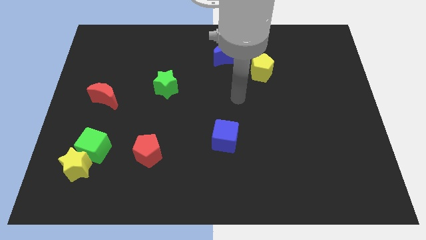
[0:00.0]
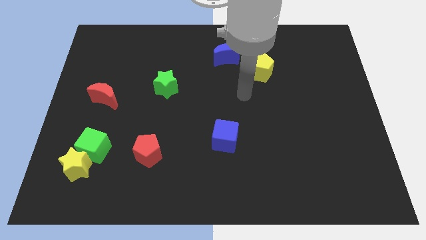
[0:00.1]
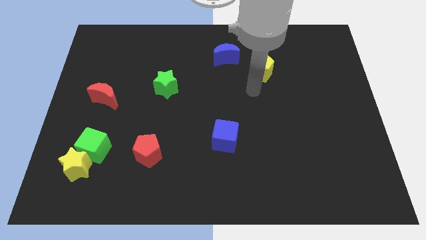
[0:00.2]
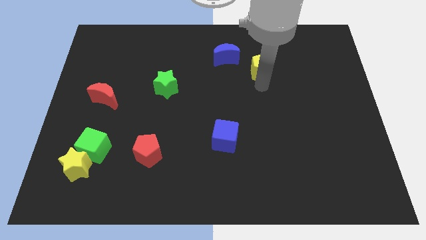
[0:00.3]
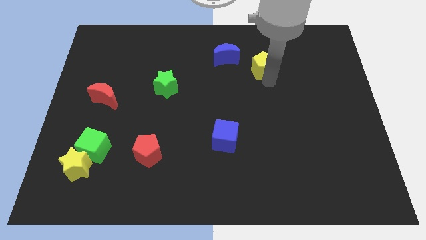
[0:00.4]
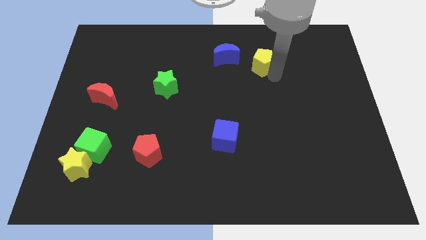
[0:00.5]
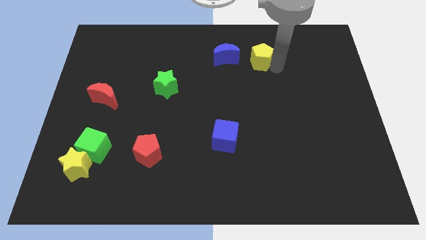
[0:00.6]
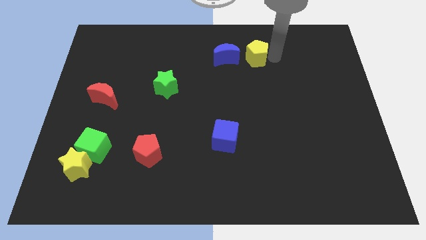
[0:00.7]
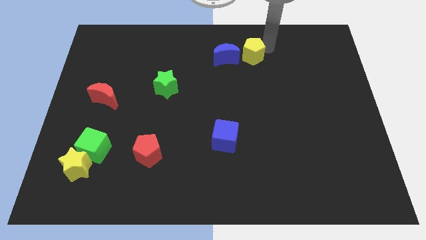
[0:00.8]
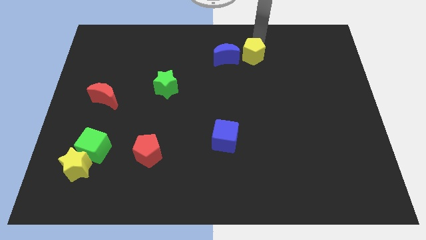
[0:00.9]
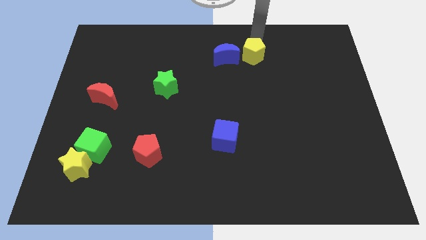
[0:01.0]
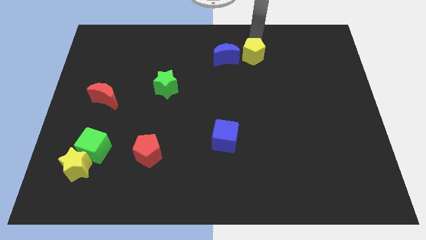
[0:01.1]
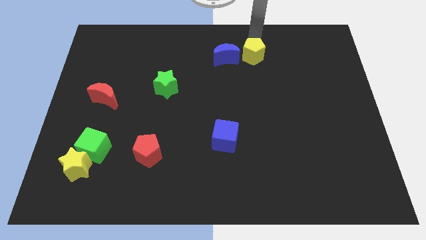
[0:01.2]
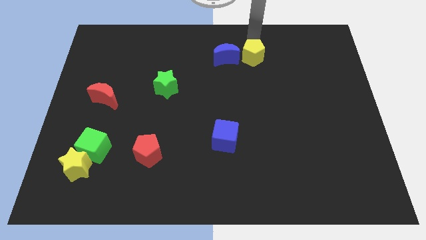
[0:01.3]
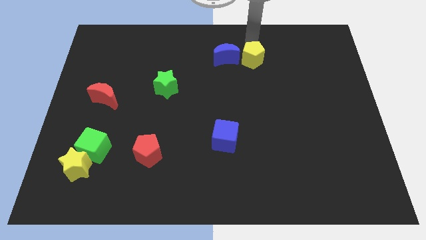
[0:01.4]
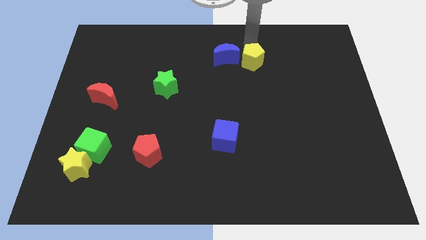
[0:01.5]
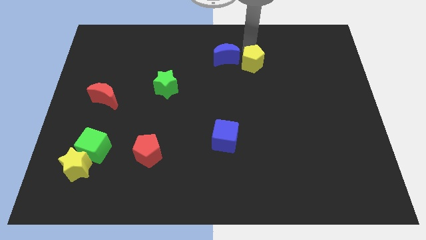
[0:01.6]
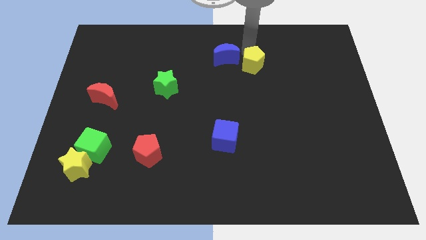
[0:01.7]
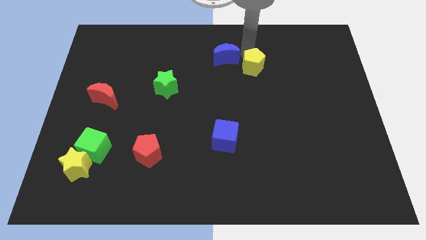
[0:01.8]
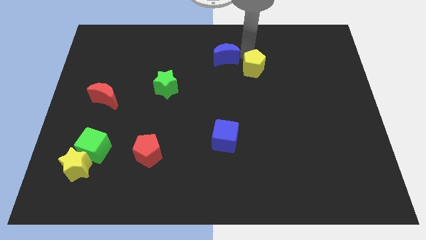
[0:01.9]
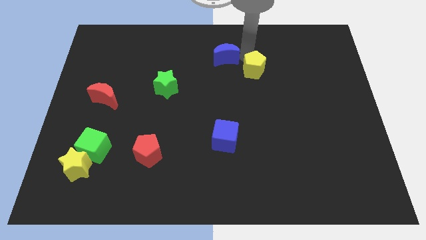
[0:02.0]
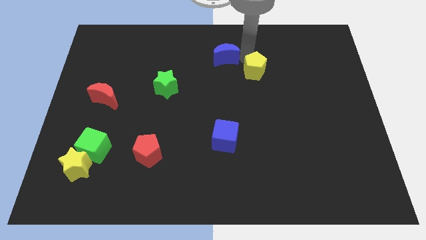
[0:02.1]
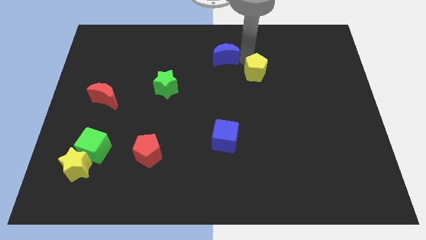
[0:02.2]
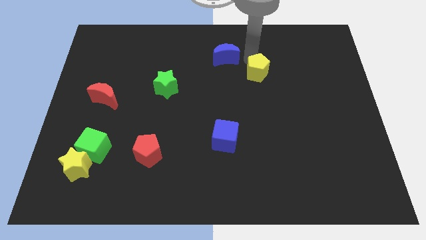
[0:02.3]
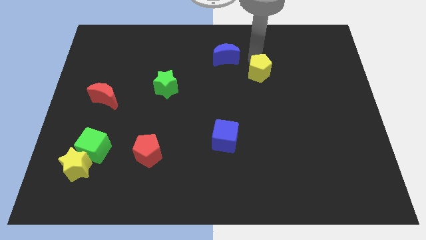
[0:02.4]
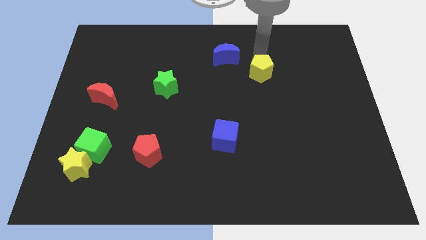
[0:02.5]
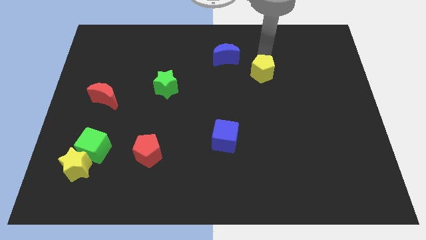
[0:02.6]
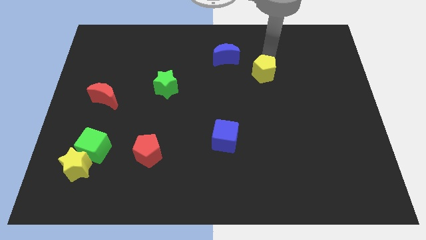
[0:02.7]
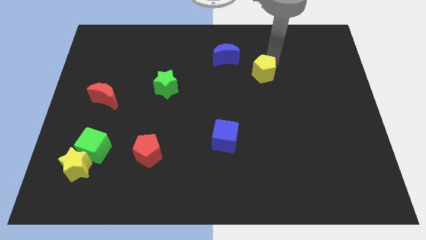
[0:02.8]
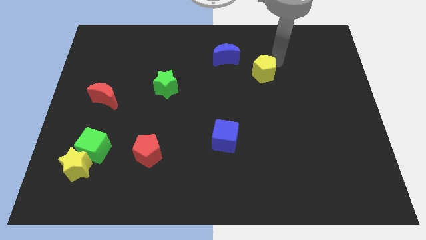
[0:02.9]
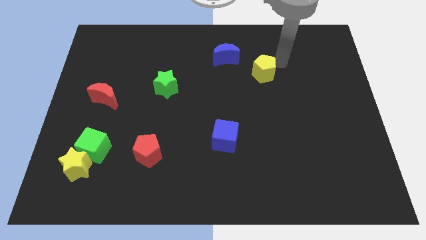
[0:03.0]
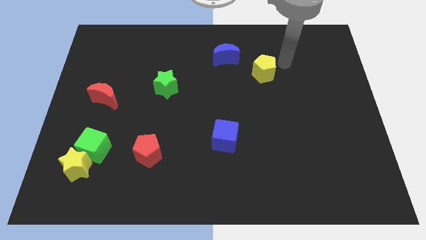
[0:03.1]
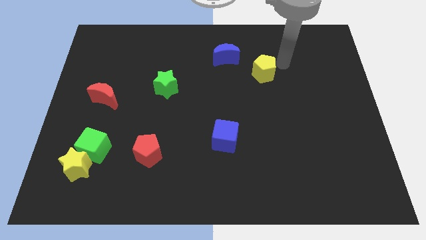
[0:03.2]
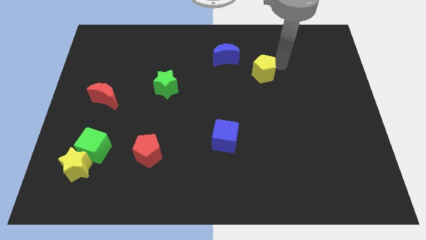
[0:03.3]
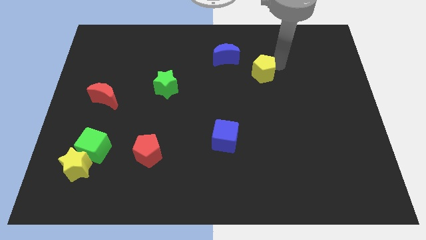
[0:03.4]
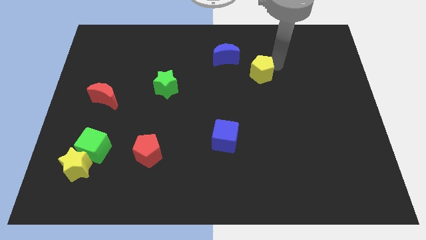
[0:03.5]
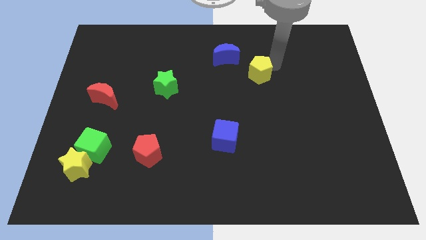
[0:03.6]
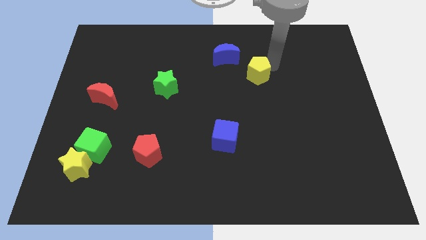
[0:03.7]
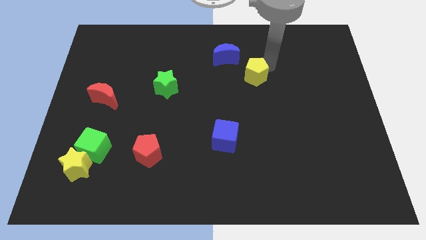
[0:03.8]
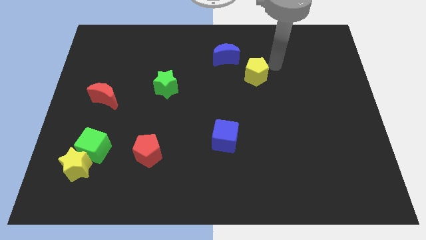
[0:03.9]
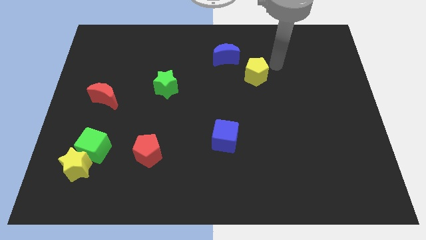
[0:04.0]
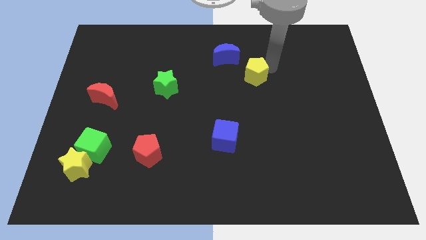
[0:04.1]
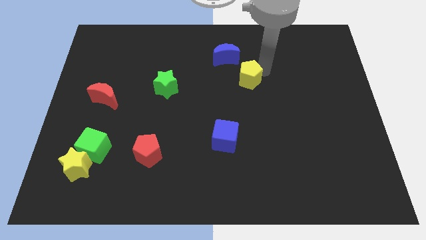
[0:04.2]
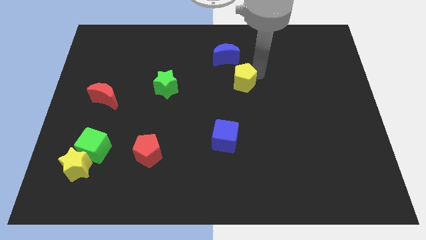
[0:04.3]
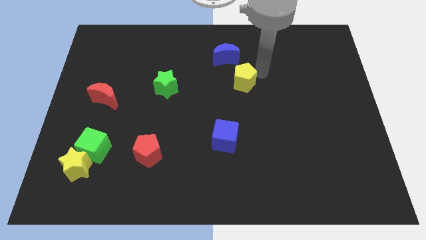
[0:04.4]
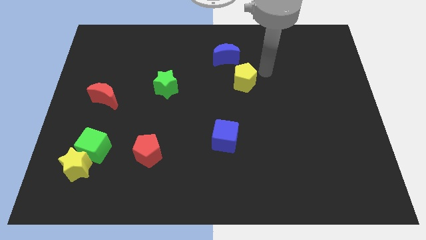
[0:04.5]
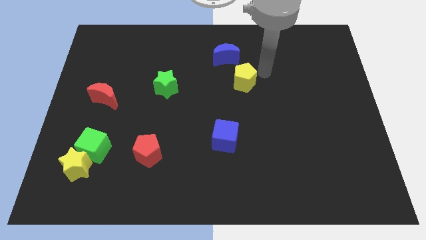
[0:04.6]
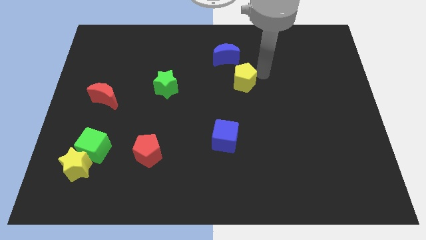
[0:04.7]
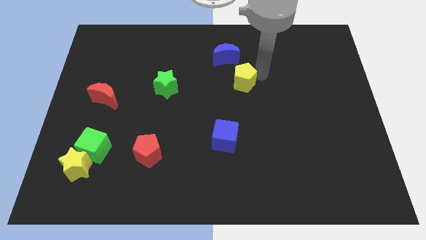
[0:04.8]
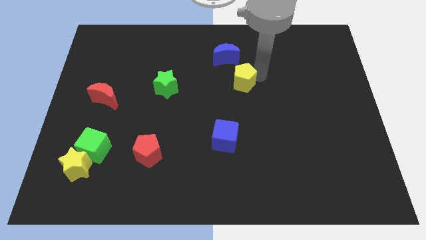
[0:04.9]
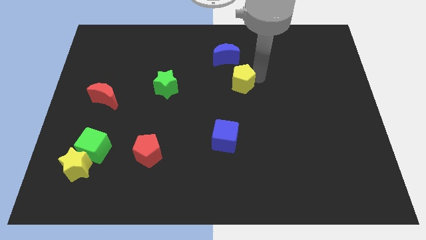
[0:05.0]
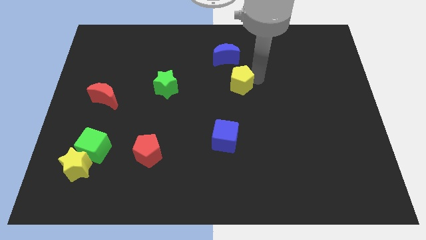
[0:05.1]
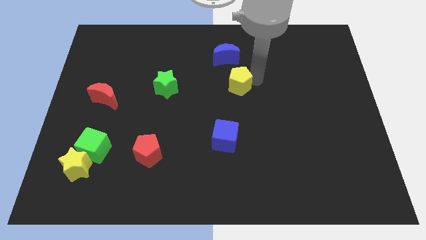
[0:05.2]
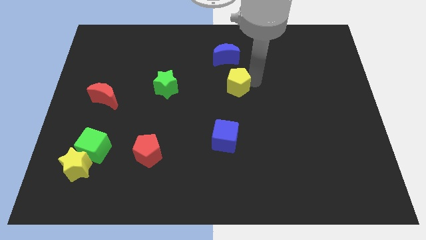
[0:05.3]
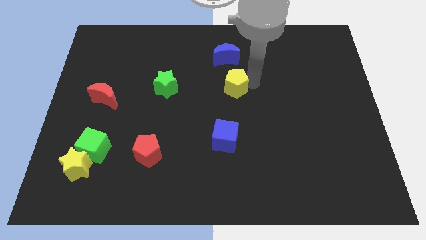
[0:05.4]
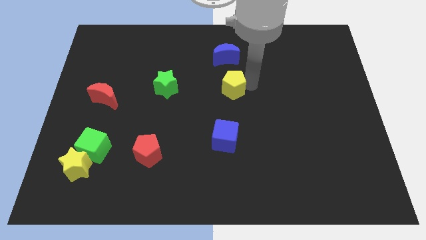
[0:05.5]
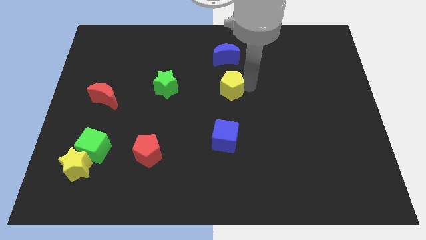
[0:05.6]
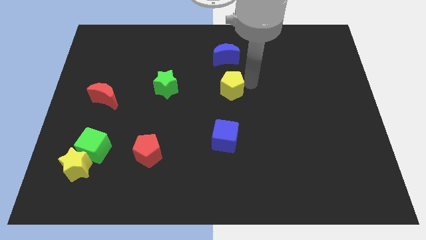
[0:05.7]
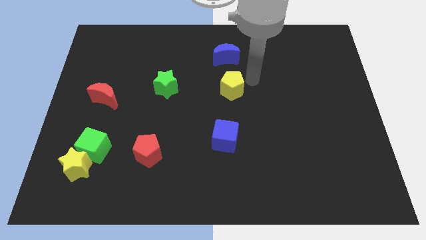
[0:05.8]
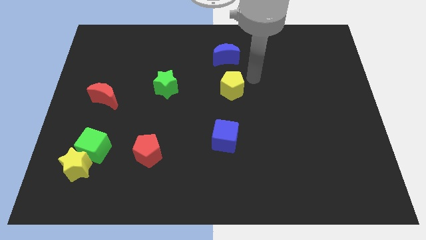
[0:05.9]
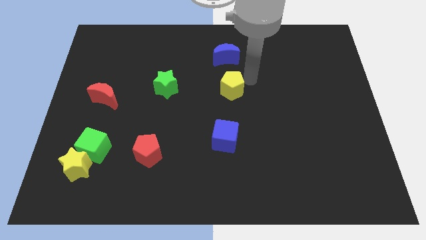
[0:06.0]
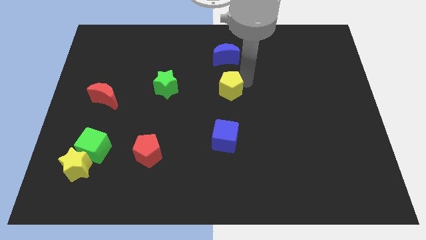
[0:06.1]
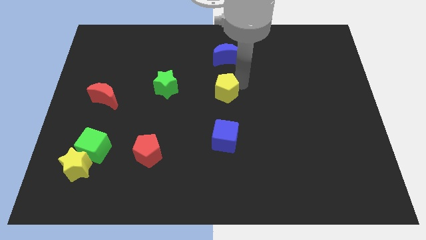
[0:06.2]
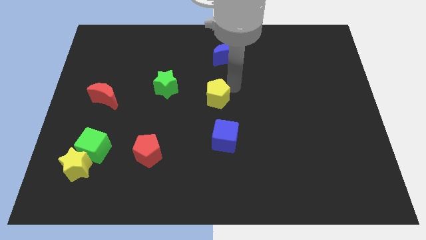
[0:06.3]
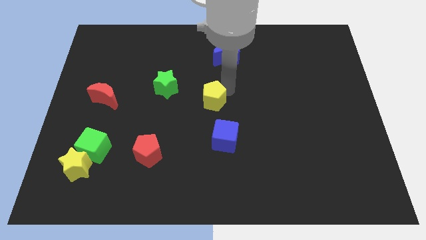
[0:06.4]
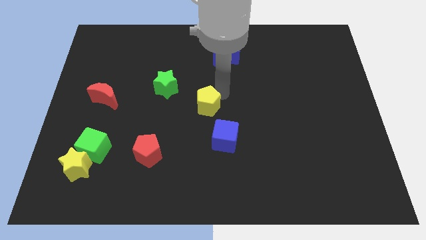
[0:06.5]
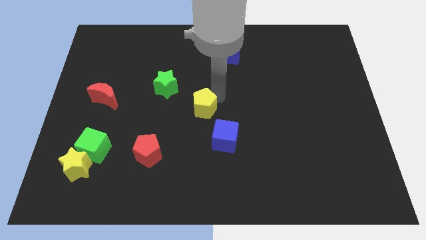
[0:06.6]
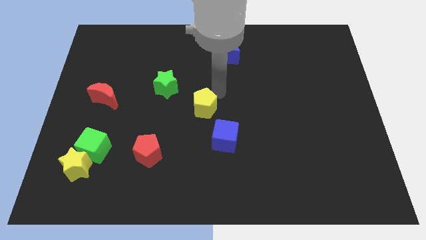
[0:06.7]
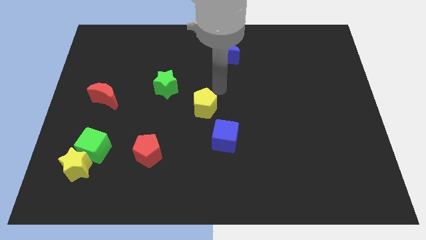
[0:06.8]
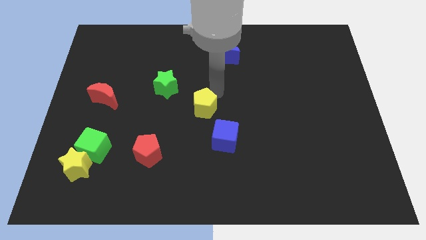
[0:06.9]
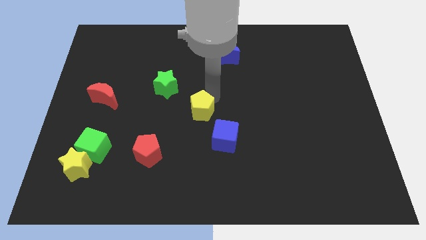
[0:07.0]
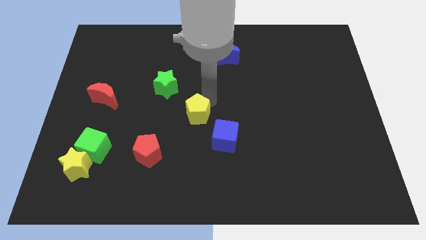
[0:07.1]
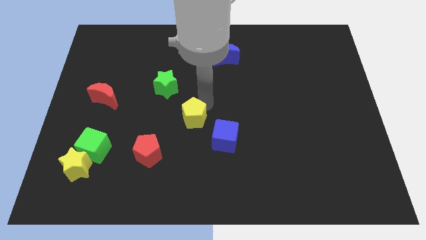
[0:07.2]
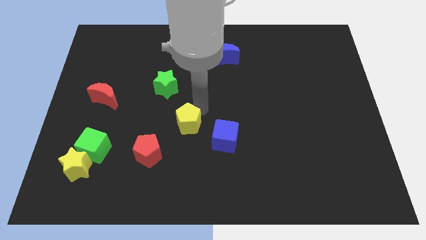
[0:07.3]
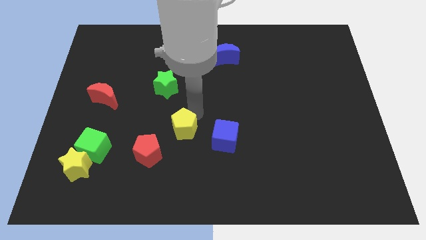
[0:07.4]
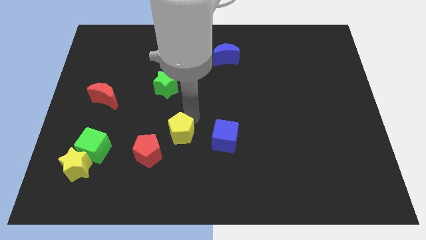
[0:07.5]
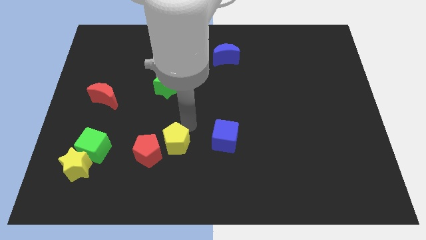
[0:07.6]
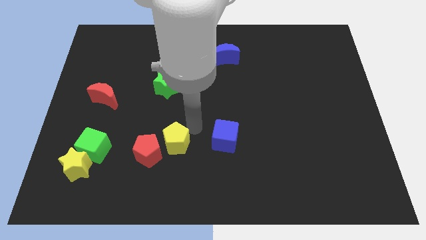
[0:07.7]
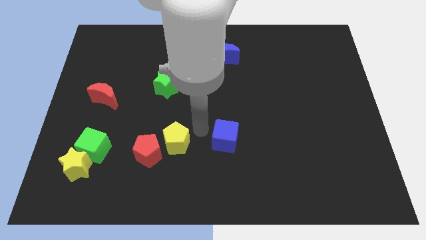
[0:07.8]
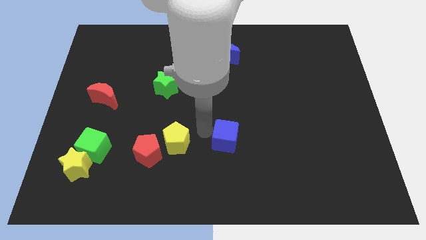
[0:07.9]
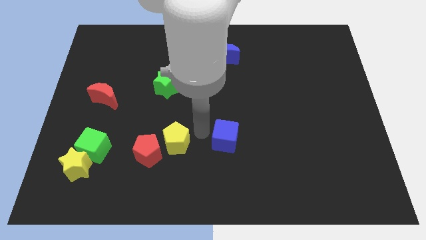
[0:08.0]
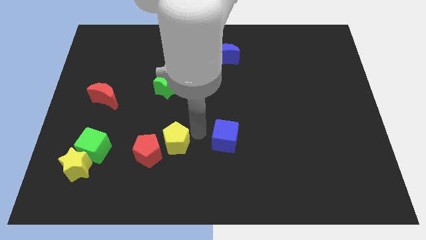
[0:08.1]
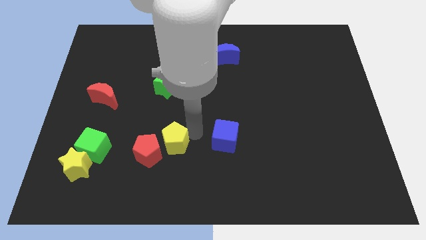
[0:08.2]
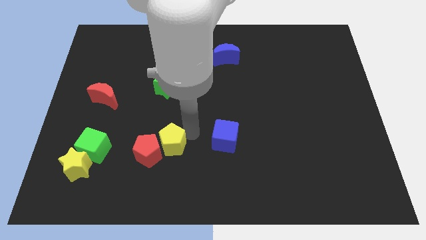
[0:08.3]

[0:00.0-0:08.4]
slide the yellow pentagon close to the red pentagon
